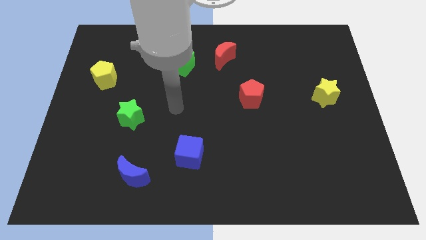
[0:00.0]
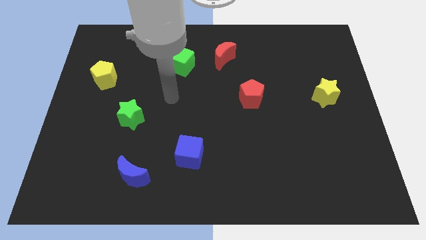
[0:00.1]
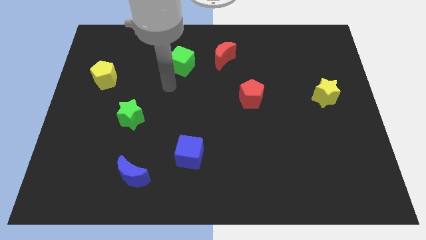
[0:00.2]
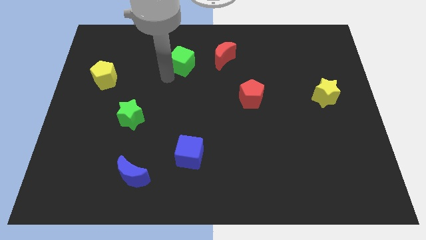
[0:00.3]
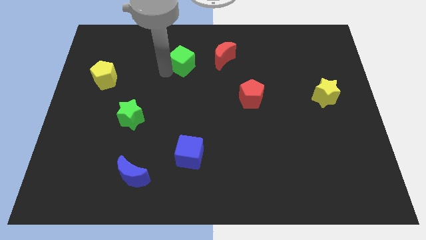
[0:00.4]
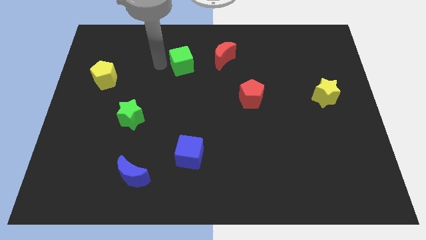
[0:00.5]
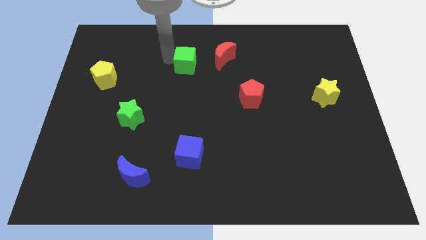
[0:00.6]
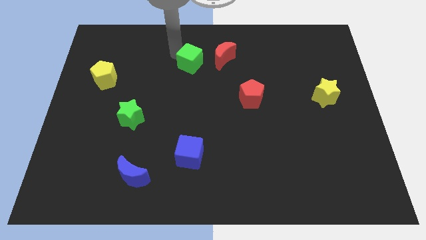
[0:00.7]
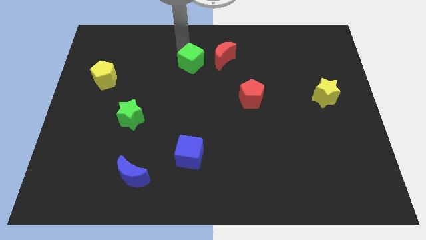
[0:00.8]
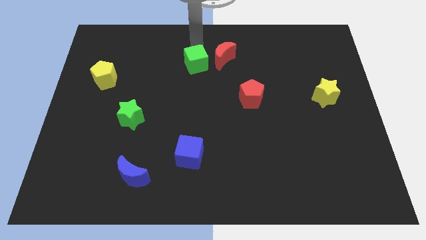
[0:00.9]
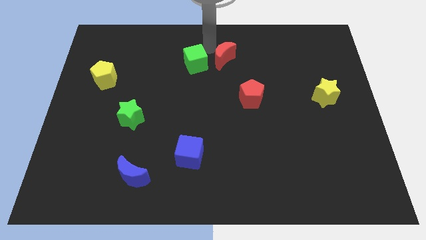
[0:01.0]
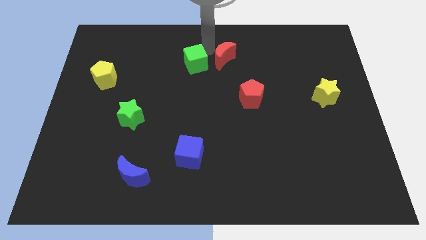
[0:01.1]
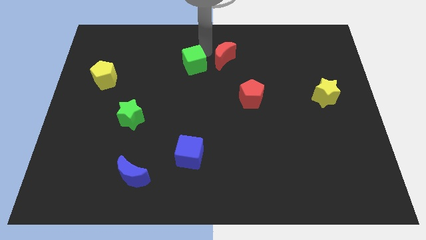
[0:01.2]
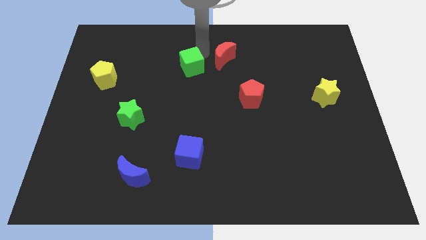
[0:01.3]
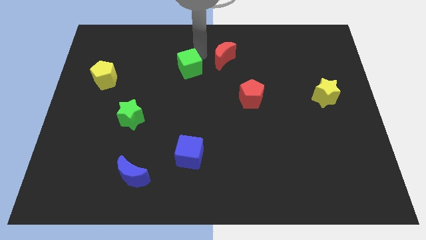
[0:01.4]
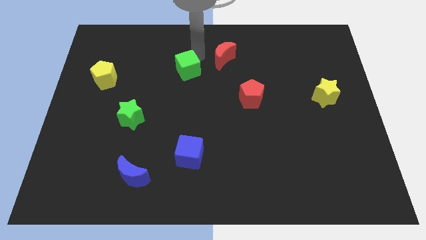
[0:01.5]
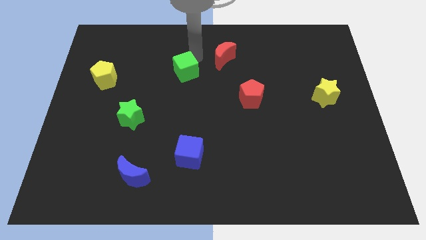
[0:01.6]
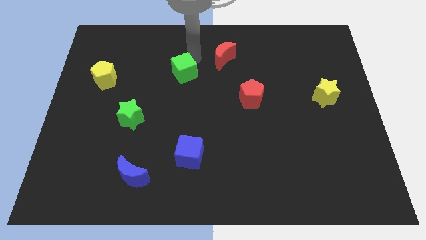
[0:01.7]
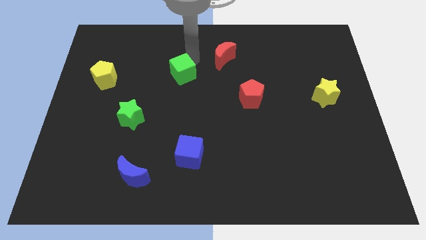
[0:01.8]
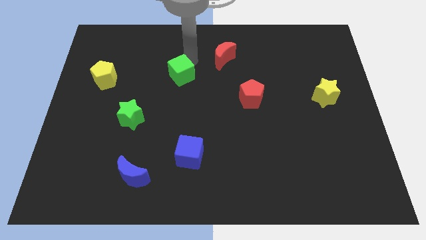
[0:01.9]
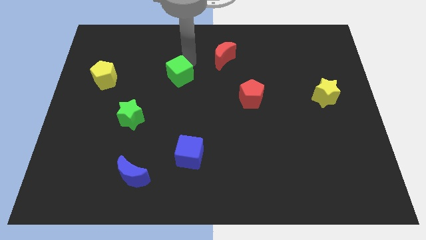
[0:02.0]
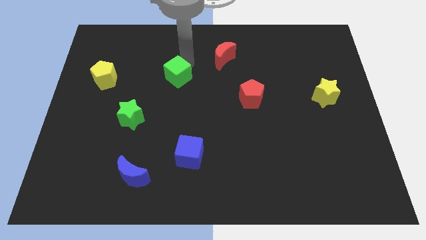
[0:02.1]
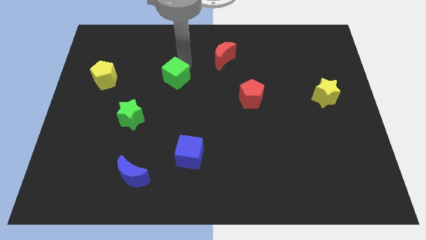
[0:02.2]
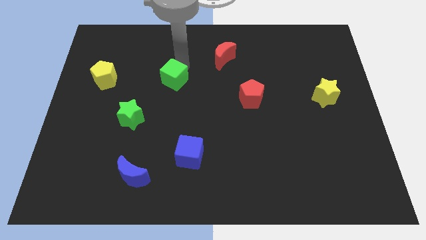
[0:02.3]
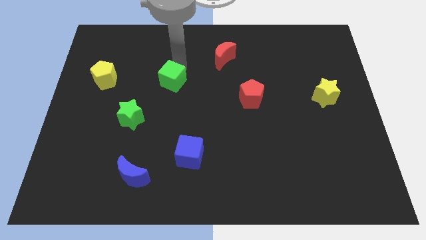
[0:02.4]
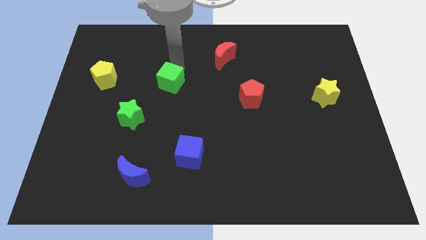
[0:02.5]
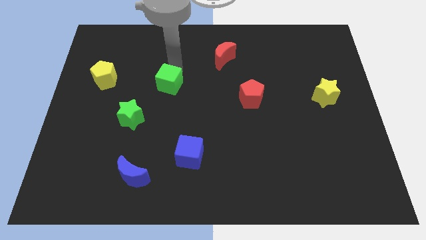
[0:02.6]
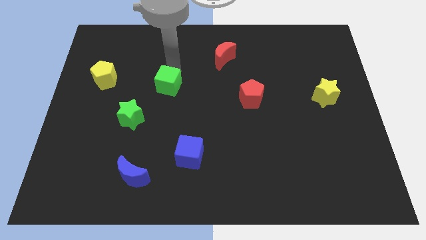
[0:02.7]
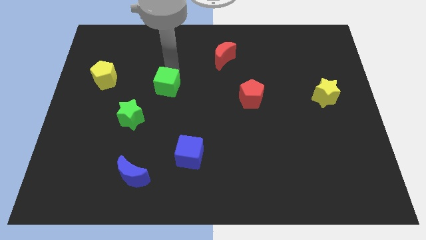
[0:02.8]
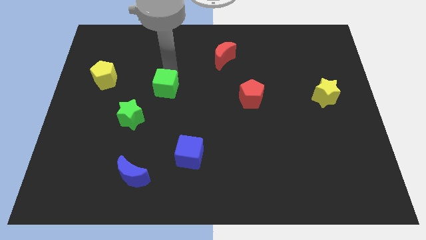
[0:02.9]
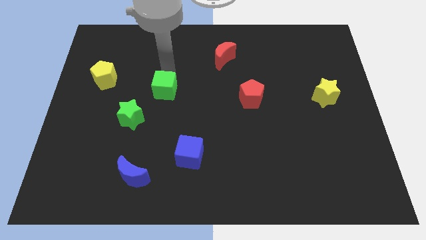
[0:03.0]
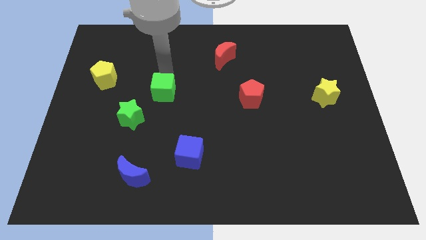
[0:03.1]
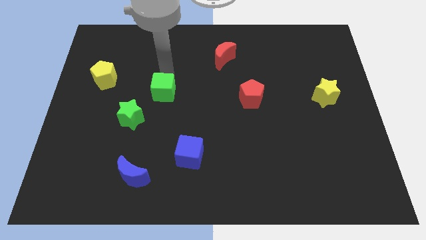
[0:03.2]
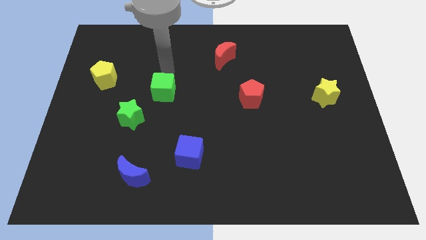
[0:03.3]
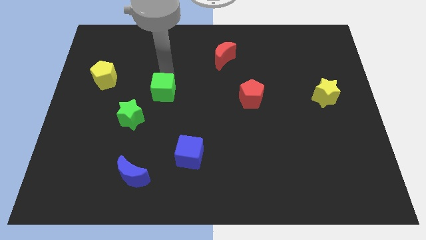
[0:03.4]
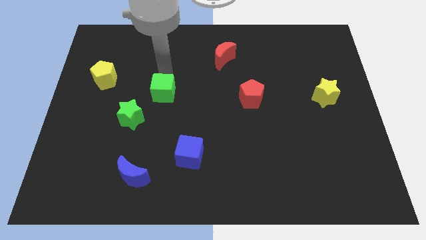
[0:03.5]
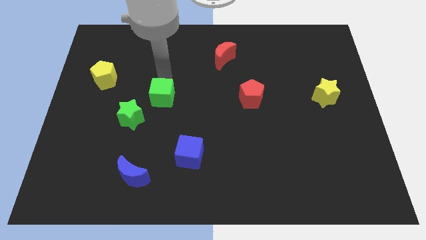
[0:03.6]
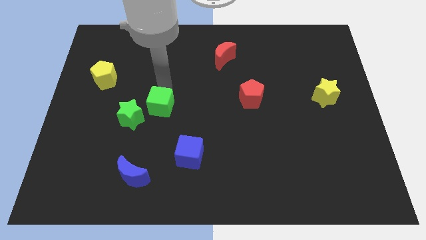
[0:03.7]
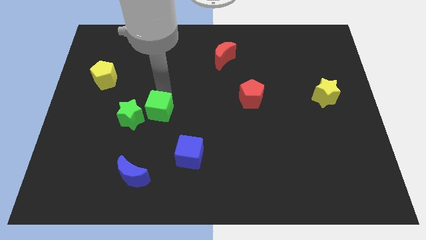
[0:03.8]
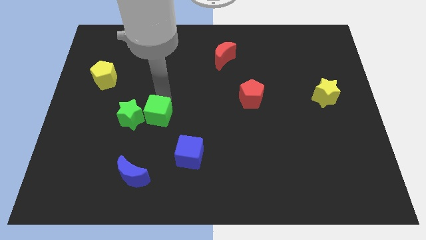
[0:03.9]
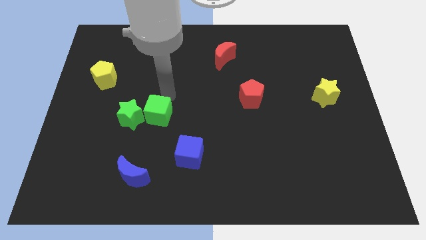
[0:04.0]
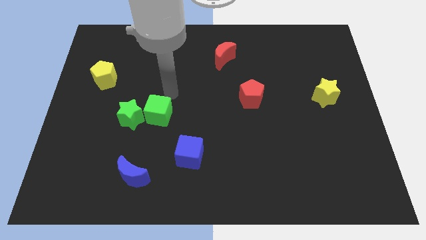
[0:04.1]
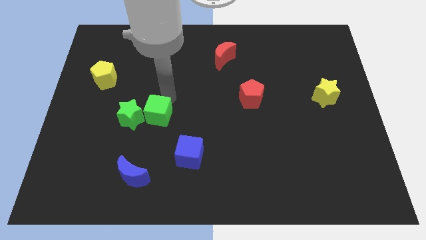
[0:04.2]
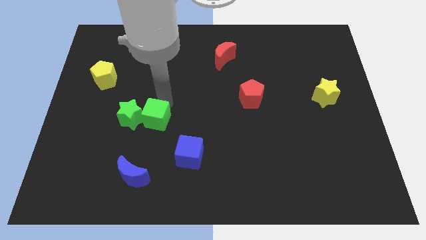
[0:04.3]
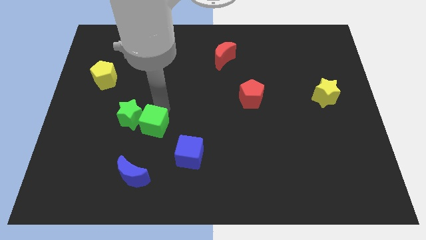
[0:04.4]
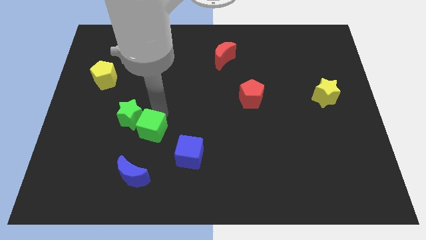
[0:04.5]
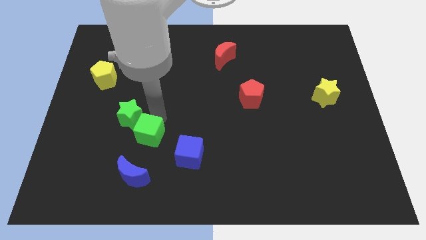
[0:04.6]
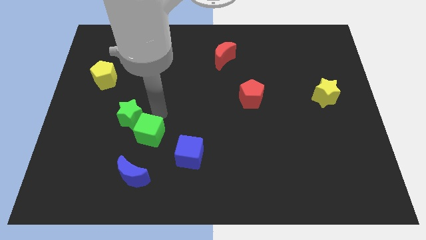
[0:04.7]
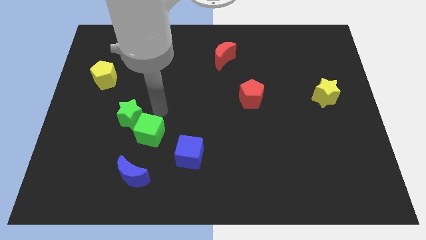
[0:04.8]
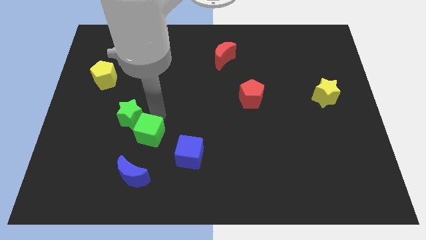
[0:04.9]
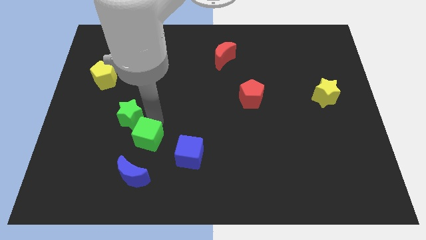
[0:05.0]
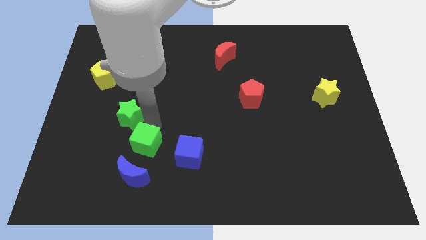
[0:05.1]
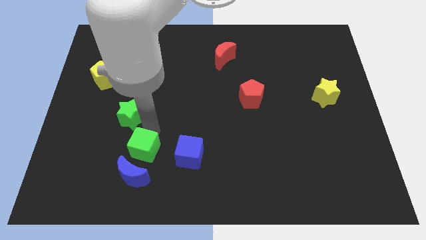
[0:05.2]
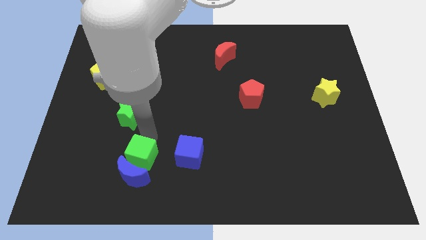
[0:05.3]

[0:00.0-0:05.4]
put the green cube to the blue moon
